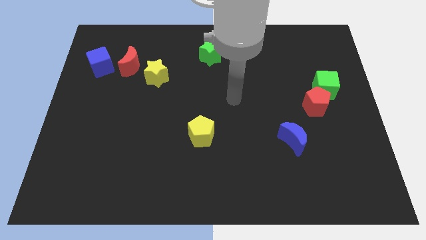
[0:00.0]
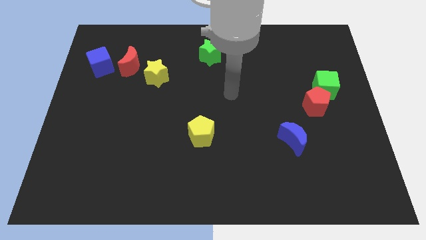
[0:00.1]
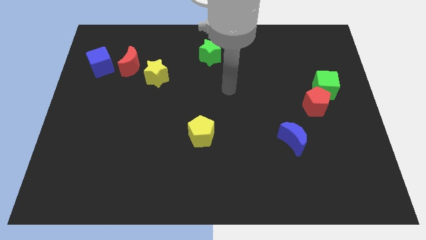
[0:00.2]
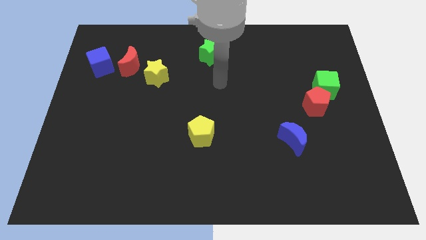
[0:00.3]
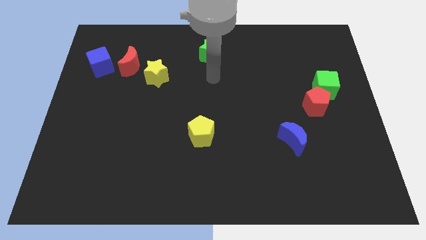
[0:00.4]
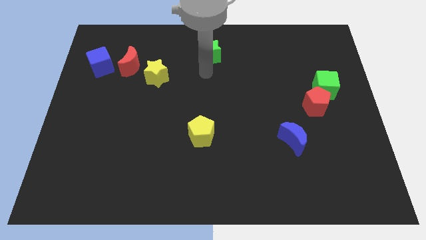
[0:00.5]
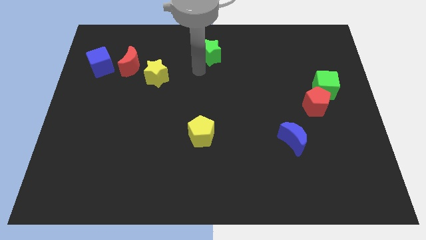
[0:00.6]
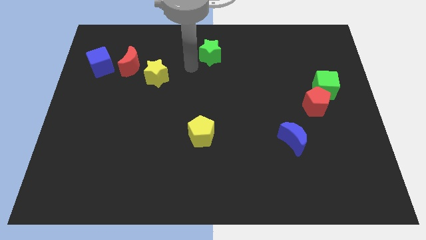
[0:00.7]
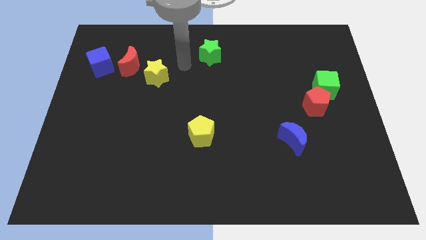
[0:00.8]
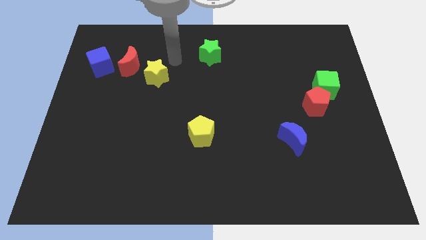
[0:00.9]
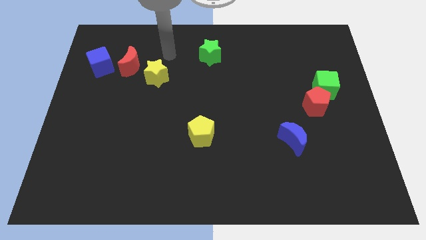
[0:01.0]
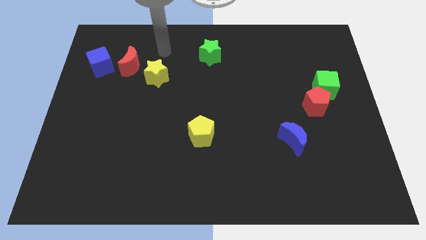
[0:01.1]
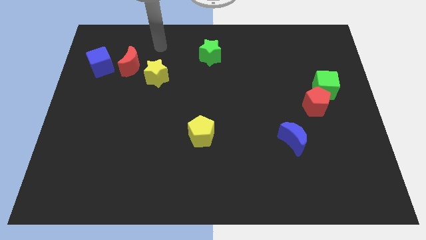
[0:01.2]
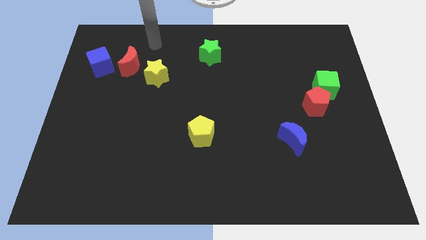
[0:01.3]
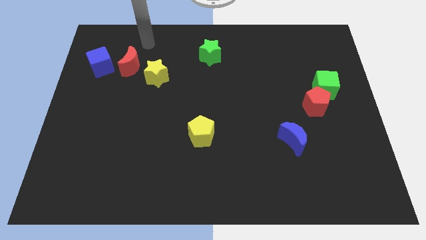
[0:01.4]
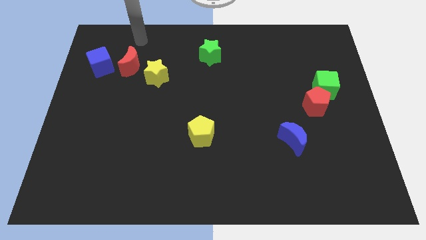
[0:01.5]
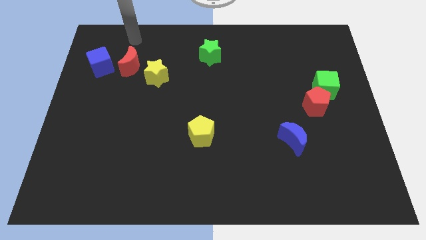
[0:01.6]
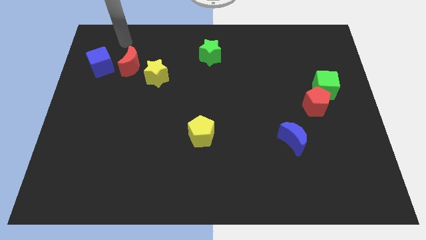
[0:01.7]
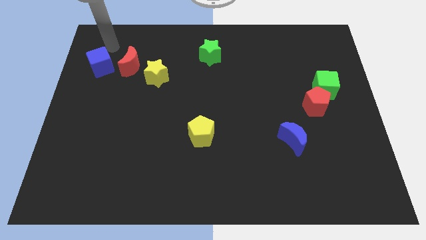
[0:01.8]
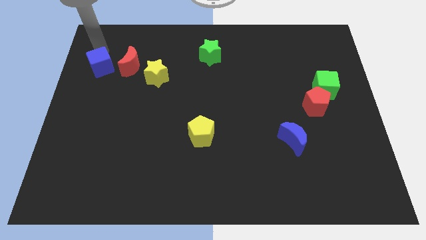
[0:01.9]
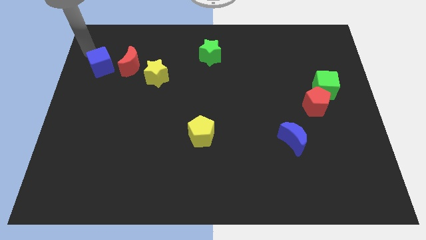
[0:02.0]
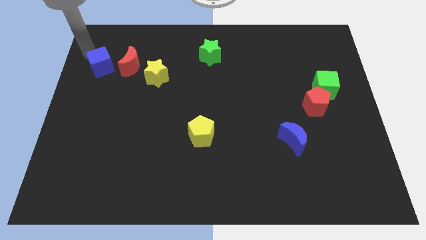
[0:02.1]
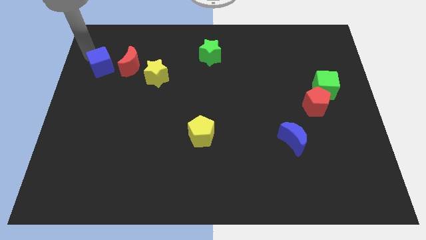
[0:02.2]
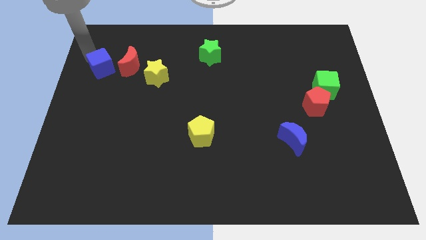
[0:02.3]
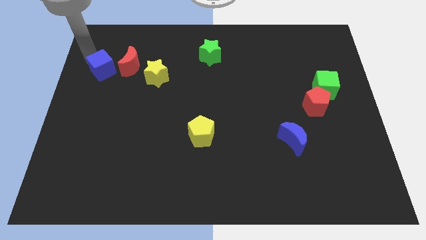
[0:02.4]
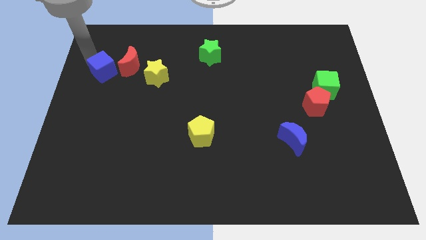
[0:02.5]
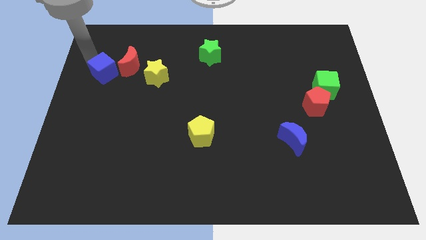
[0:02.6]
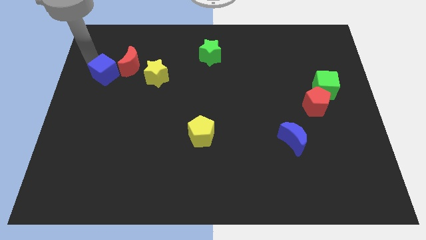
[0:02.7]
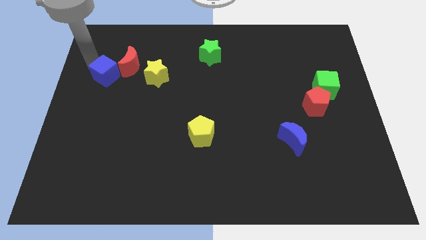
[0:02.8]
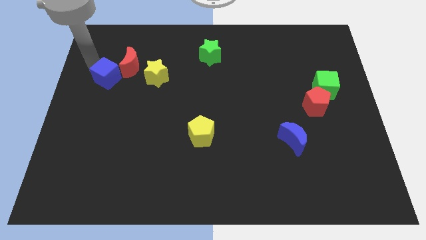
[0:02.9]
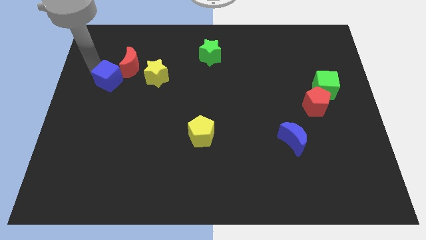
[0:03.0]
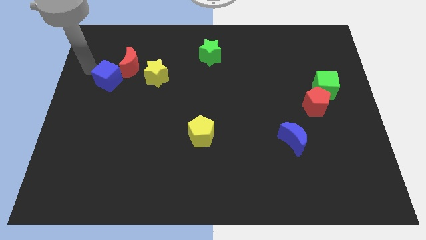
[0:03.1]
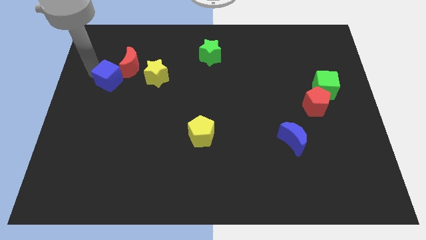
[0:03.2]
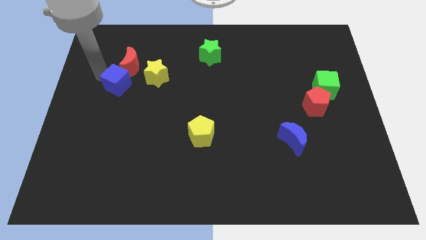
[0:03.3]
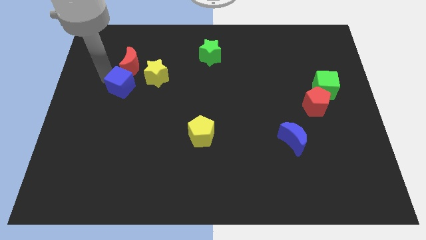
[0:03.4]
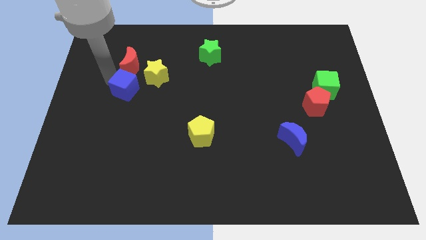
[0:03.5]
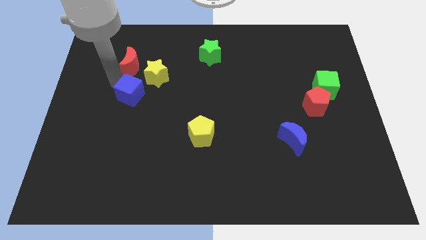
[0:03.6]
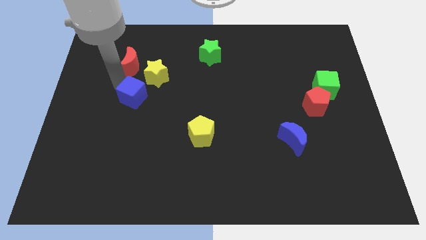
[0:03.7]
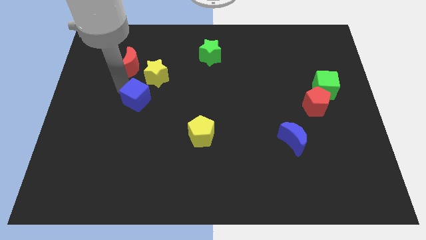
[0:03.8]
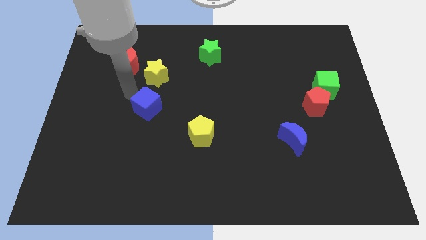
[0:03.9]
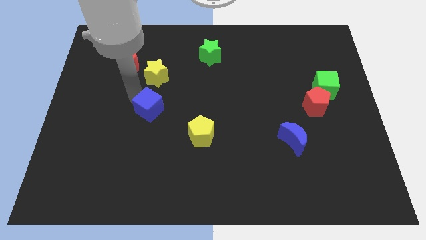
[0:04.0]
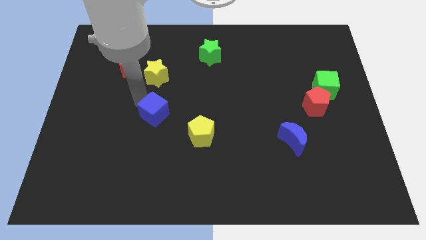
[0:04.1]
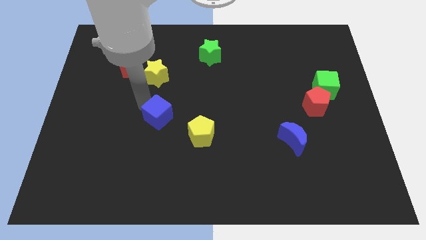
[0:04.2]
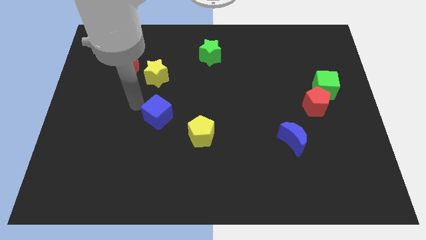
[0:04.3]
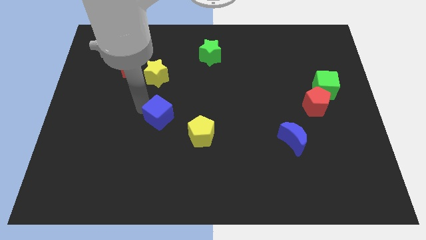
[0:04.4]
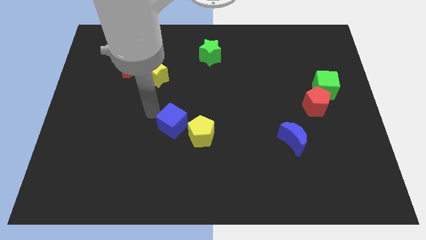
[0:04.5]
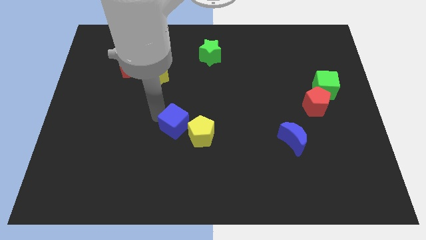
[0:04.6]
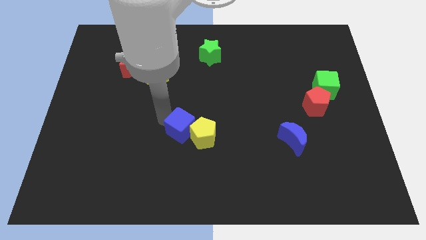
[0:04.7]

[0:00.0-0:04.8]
slide the blue cube next to the yellow pentagon

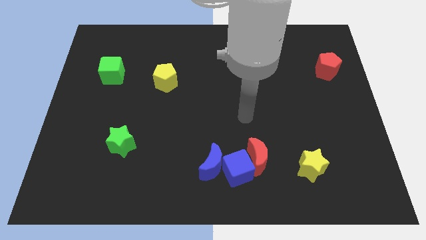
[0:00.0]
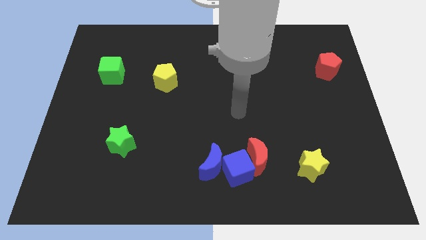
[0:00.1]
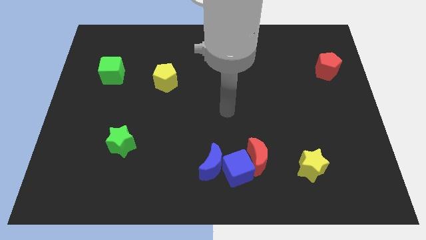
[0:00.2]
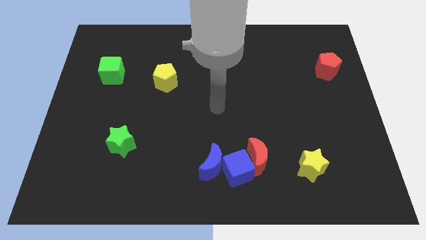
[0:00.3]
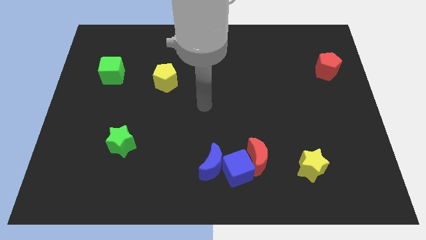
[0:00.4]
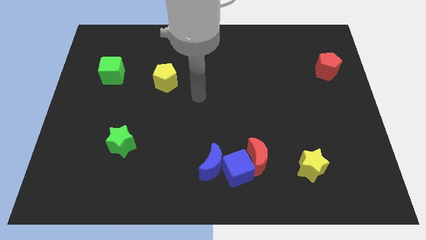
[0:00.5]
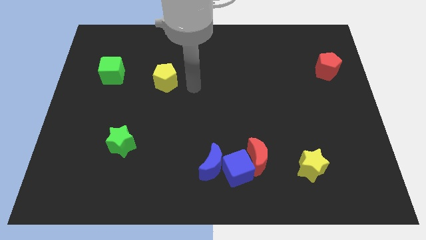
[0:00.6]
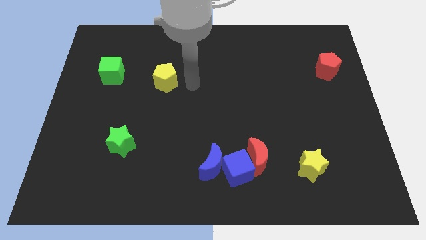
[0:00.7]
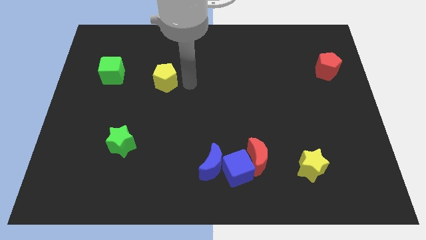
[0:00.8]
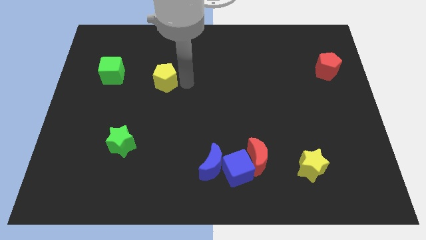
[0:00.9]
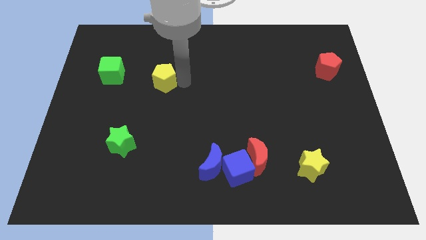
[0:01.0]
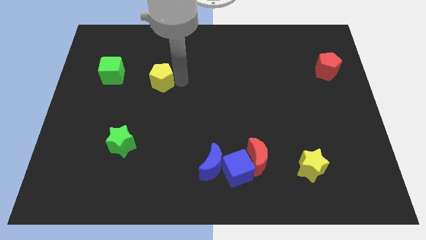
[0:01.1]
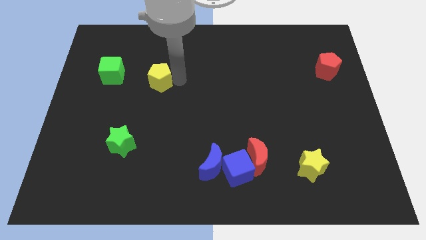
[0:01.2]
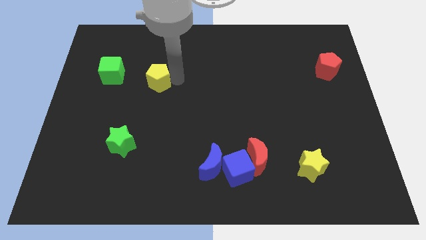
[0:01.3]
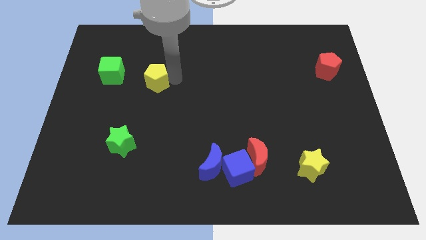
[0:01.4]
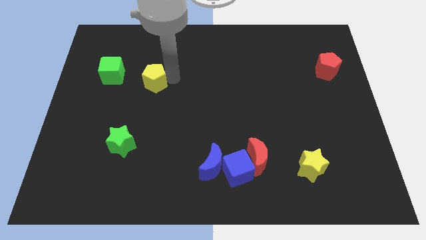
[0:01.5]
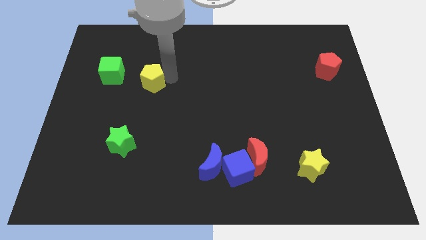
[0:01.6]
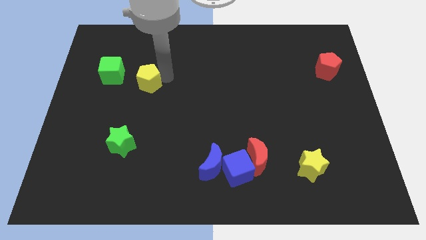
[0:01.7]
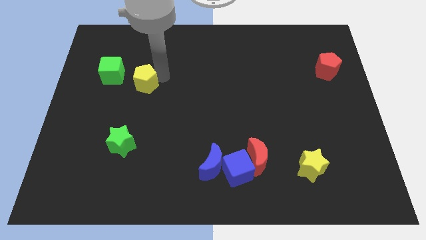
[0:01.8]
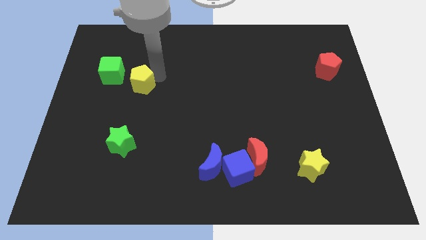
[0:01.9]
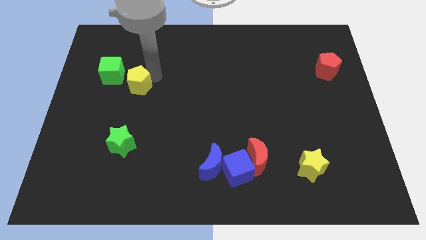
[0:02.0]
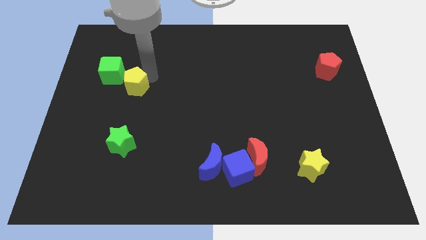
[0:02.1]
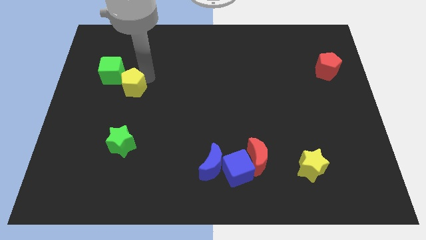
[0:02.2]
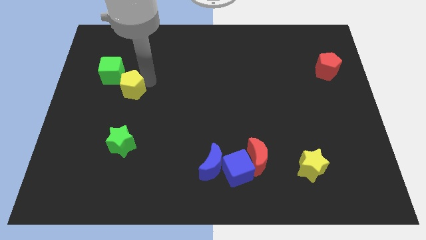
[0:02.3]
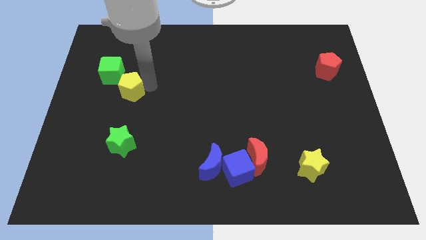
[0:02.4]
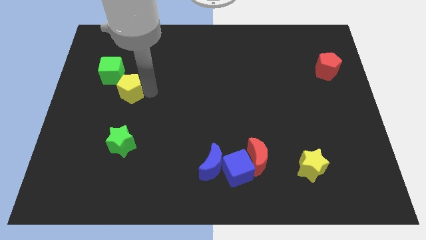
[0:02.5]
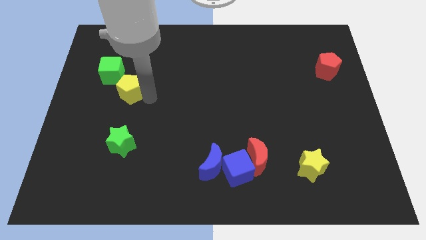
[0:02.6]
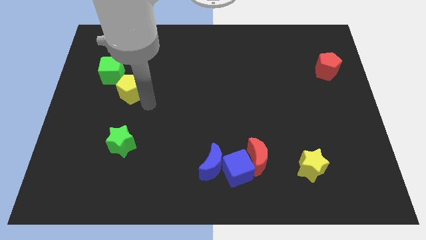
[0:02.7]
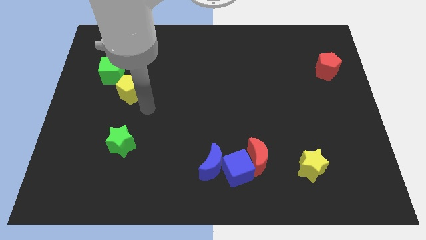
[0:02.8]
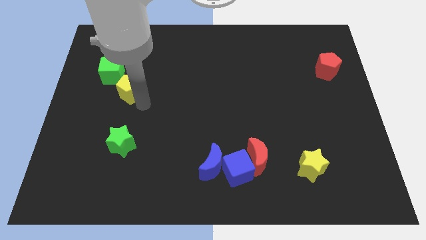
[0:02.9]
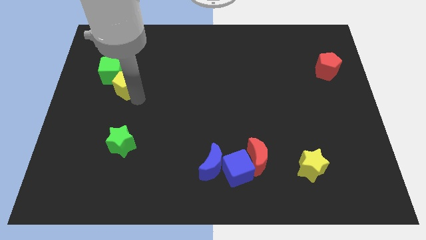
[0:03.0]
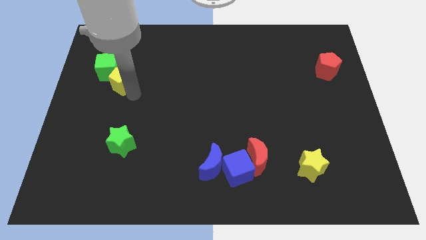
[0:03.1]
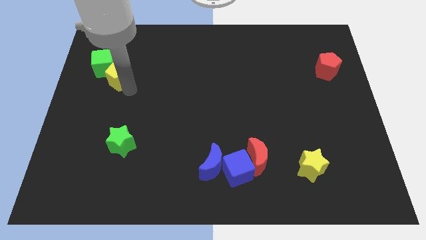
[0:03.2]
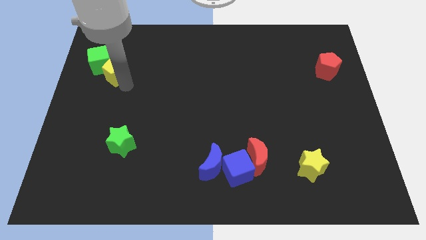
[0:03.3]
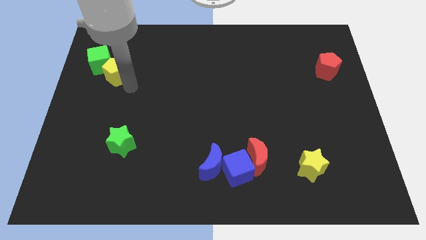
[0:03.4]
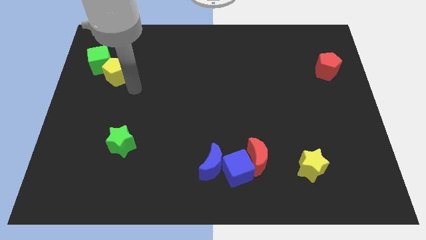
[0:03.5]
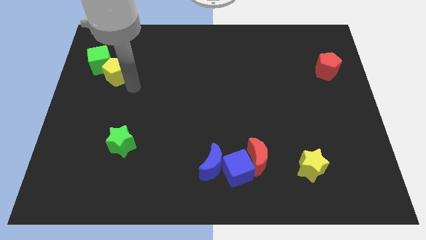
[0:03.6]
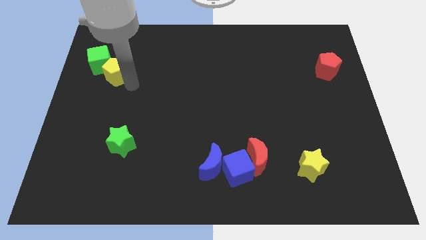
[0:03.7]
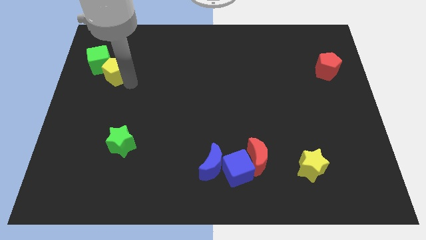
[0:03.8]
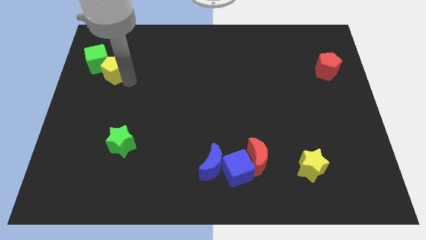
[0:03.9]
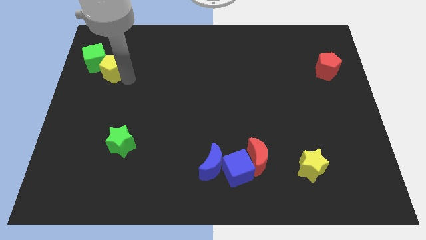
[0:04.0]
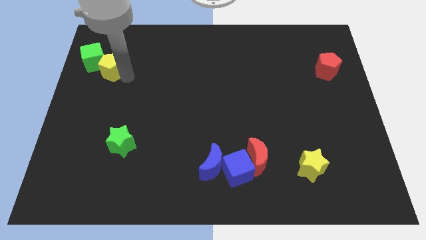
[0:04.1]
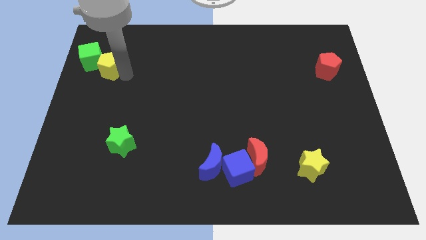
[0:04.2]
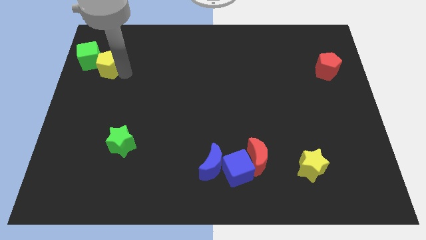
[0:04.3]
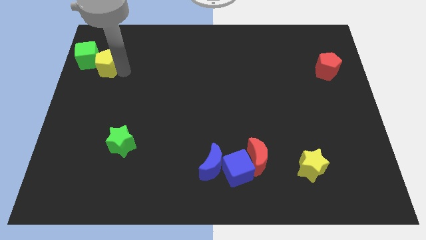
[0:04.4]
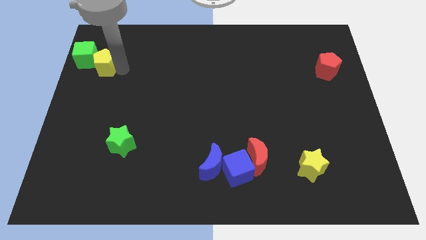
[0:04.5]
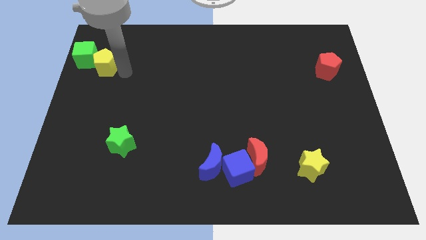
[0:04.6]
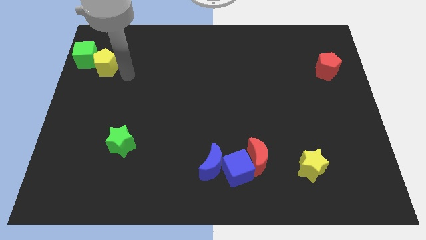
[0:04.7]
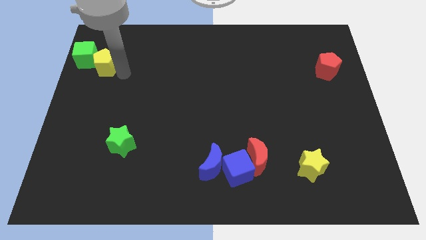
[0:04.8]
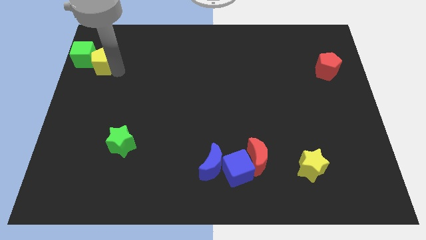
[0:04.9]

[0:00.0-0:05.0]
put the yellow pentagon towards the green cube
